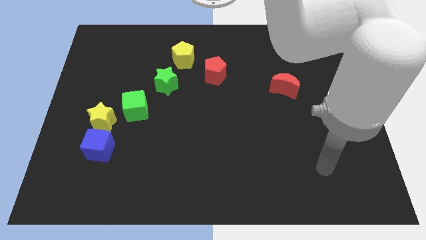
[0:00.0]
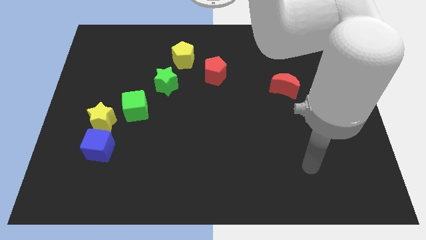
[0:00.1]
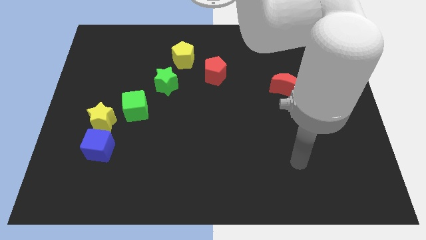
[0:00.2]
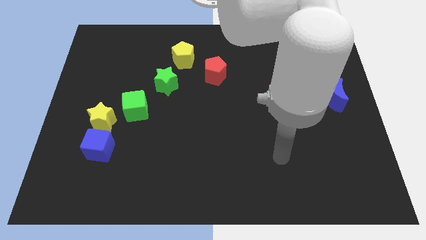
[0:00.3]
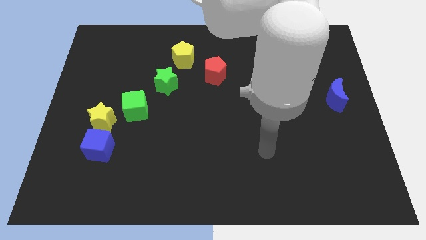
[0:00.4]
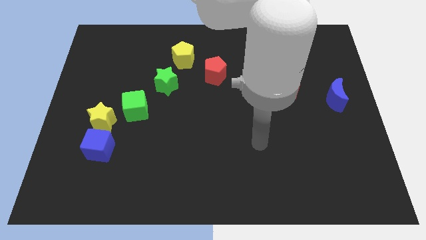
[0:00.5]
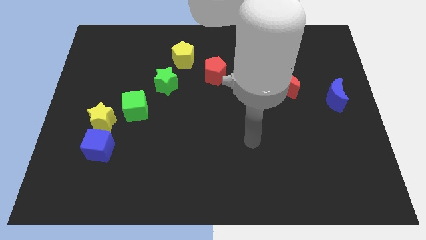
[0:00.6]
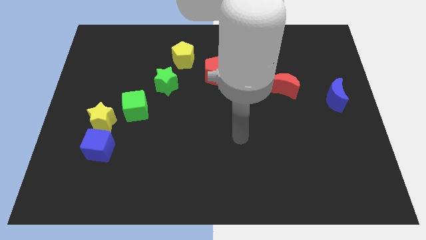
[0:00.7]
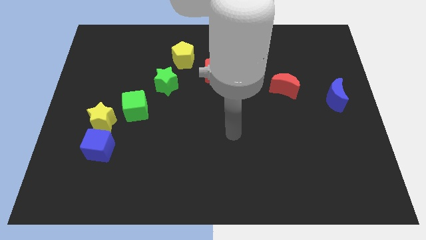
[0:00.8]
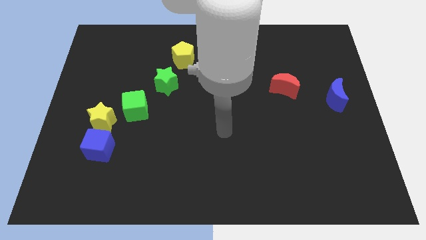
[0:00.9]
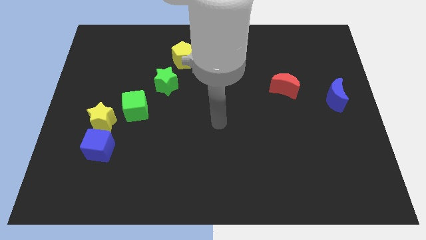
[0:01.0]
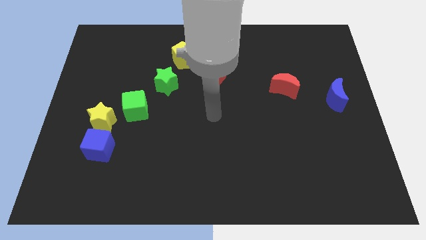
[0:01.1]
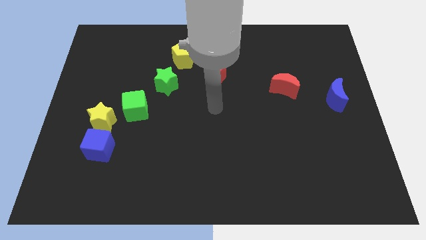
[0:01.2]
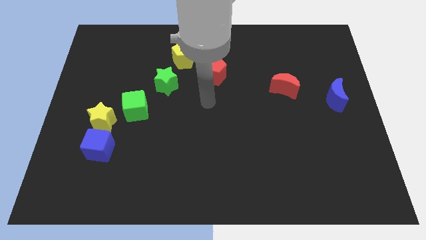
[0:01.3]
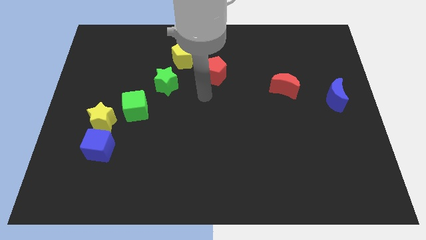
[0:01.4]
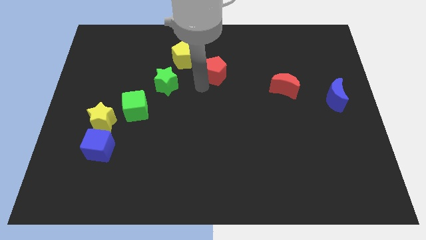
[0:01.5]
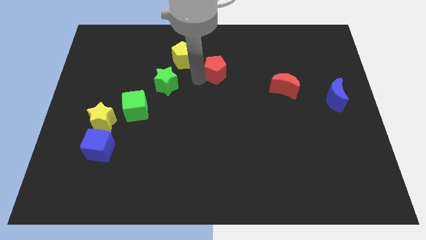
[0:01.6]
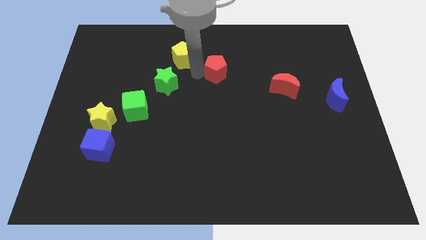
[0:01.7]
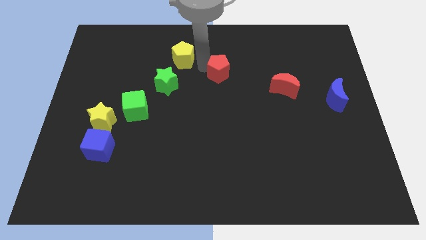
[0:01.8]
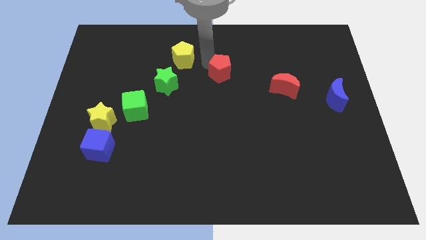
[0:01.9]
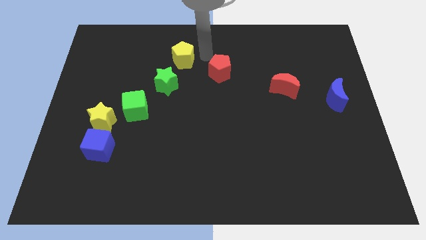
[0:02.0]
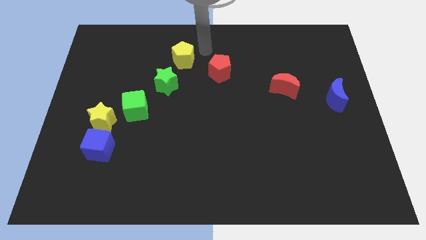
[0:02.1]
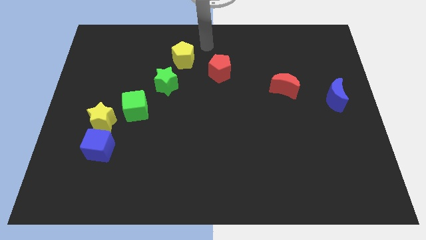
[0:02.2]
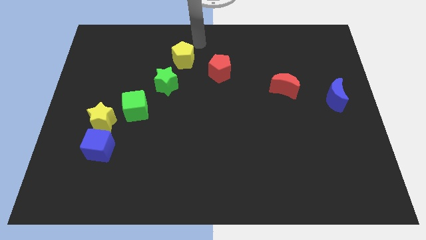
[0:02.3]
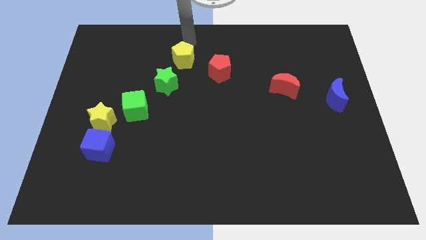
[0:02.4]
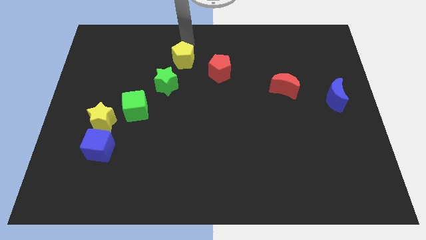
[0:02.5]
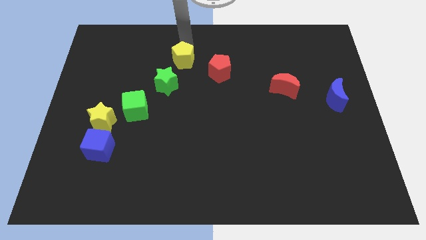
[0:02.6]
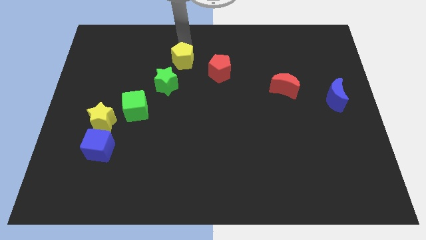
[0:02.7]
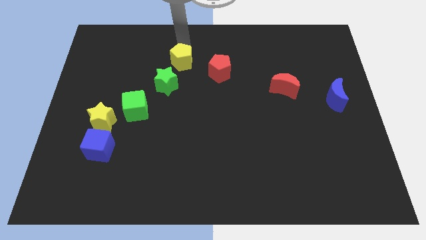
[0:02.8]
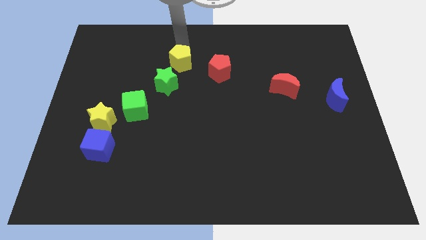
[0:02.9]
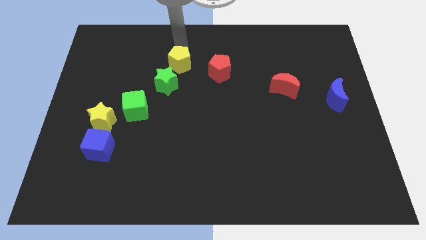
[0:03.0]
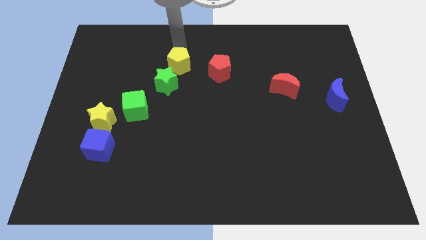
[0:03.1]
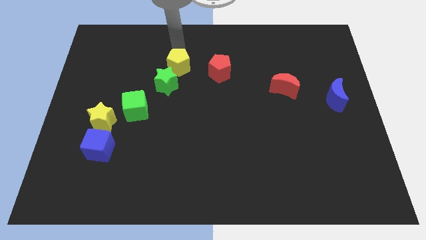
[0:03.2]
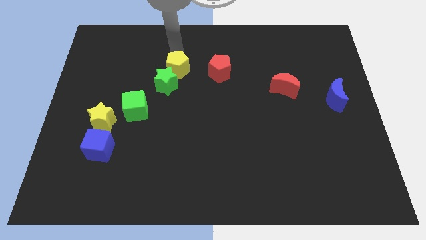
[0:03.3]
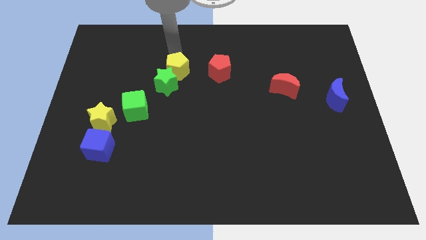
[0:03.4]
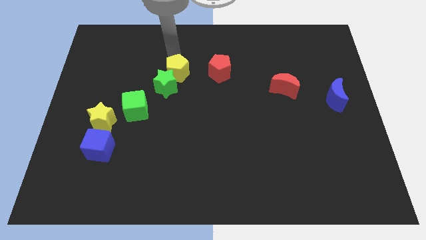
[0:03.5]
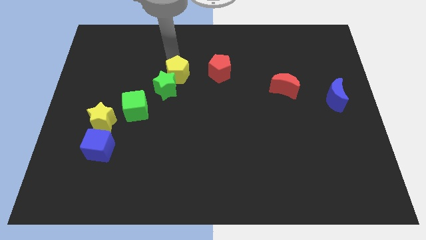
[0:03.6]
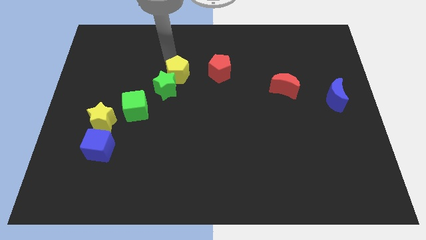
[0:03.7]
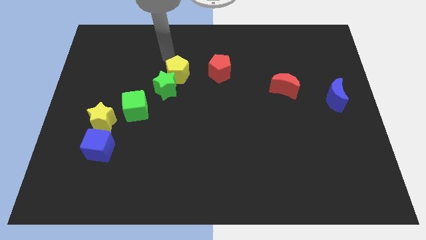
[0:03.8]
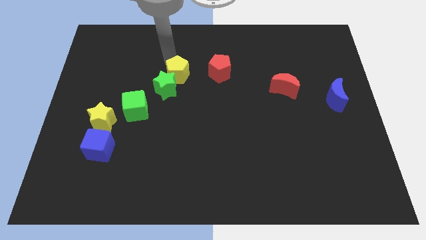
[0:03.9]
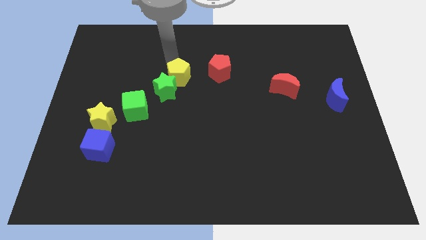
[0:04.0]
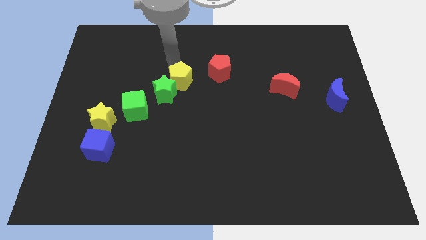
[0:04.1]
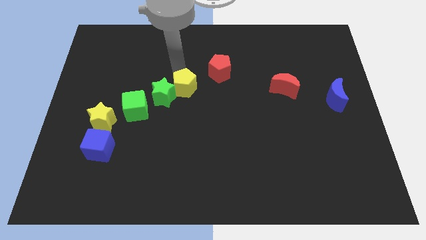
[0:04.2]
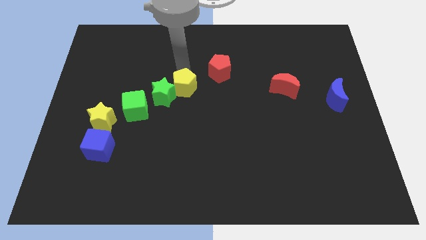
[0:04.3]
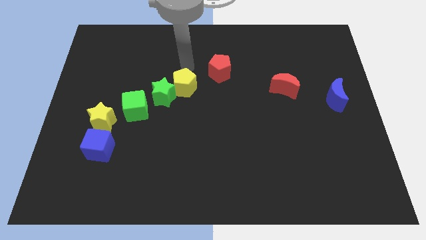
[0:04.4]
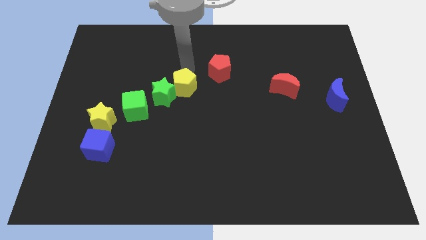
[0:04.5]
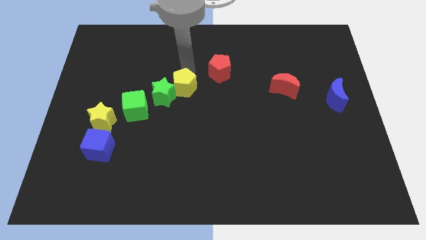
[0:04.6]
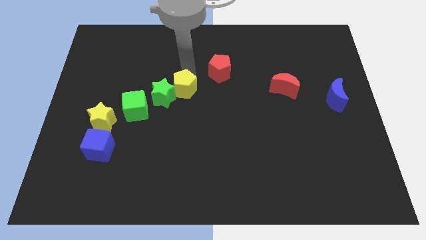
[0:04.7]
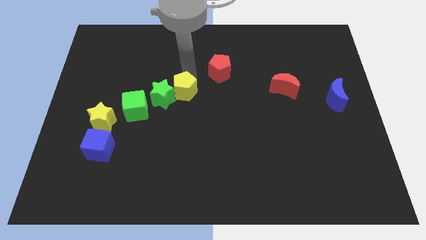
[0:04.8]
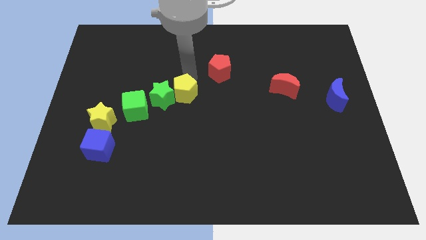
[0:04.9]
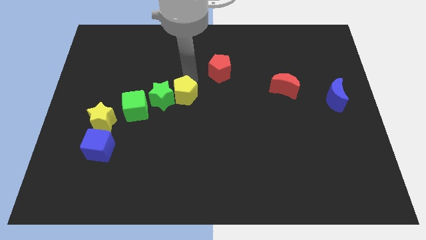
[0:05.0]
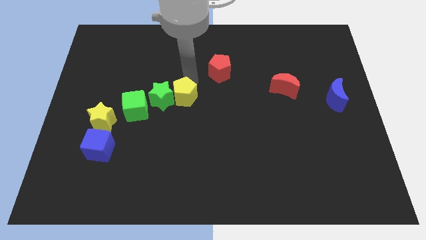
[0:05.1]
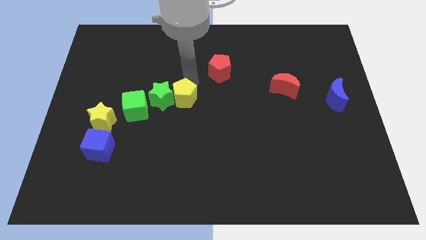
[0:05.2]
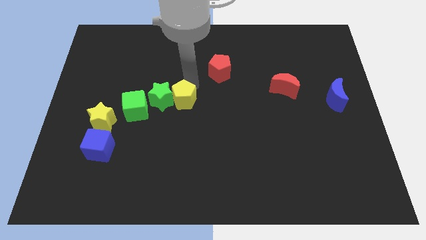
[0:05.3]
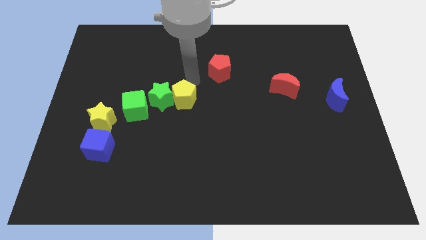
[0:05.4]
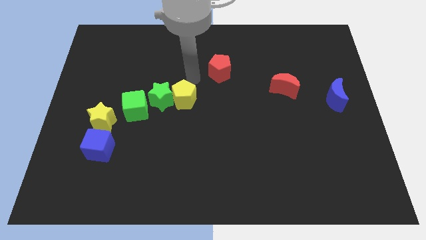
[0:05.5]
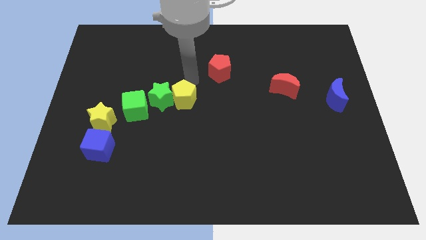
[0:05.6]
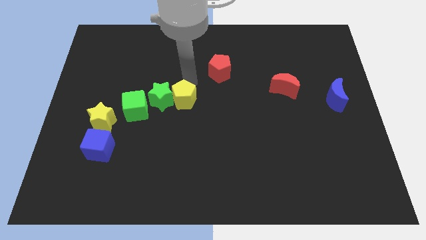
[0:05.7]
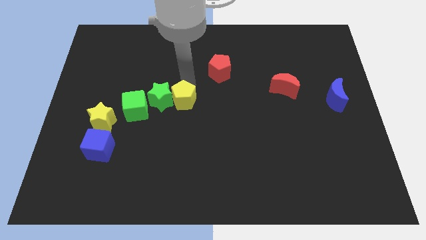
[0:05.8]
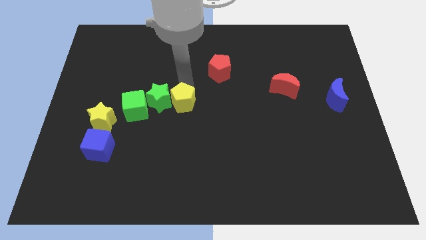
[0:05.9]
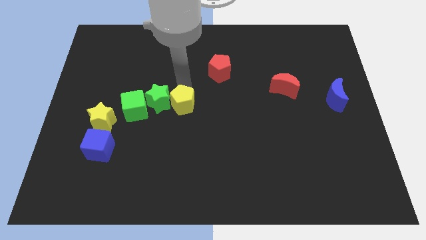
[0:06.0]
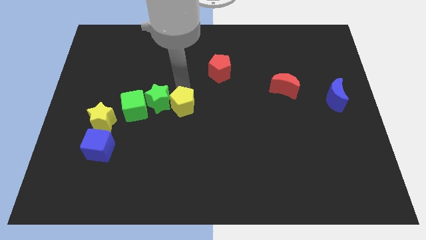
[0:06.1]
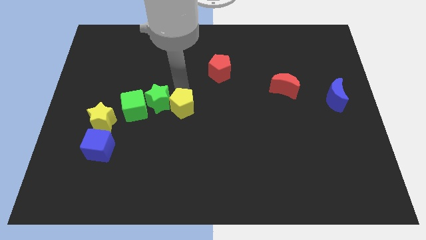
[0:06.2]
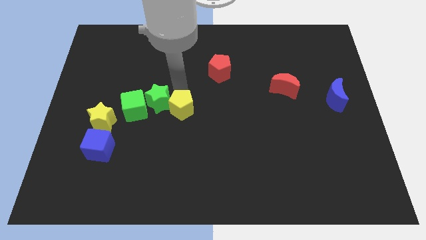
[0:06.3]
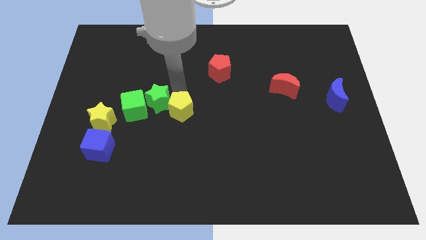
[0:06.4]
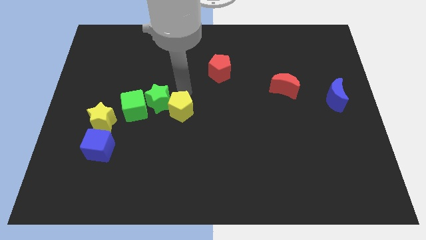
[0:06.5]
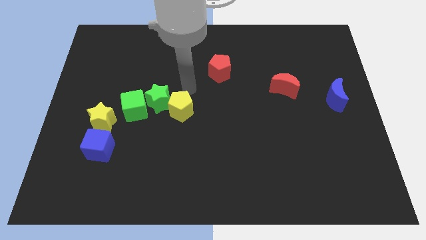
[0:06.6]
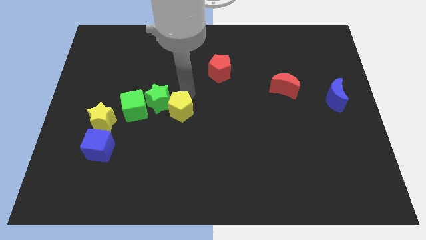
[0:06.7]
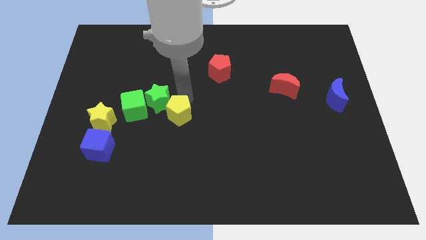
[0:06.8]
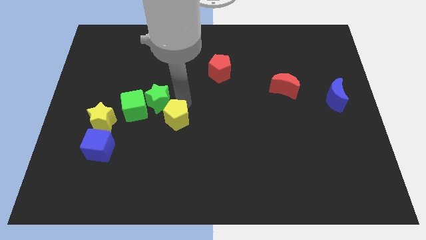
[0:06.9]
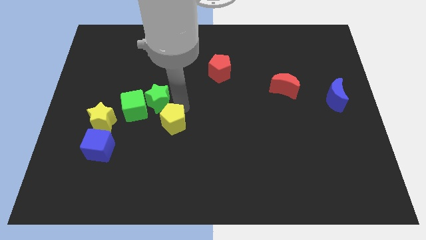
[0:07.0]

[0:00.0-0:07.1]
push the yellow pentagon down

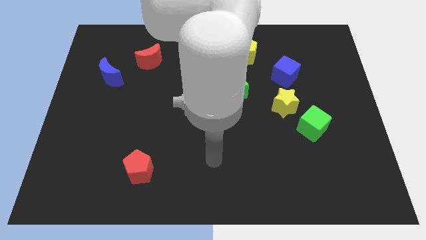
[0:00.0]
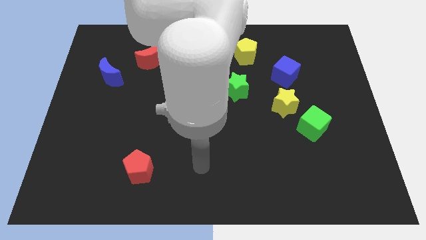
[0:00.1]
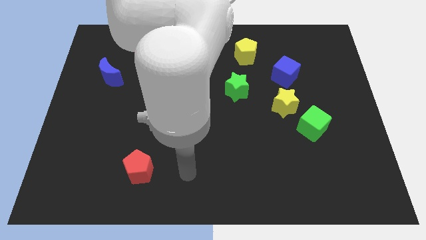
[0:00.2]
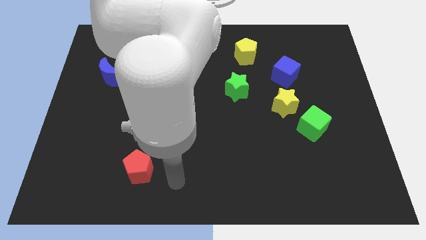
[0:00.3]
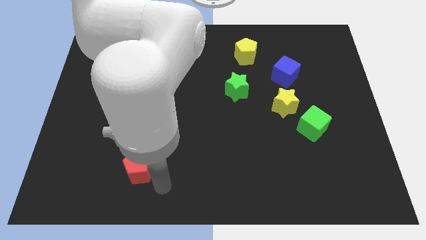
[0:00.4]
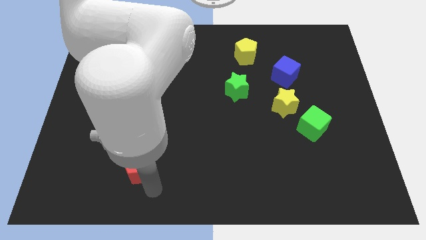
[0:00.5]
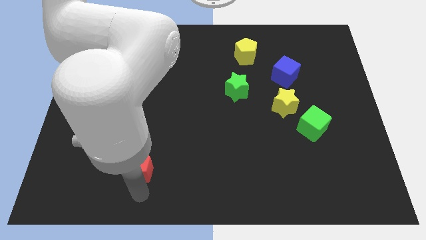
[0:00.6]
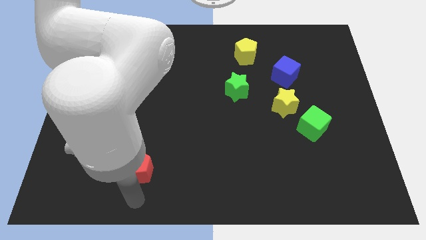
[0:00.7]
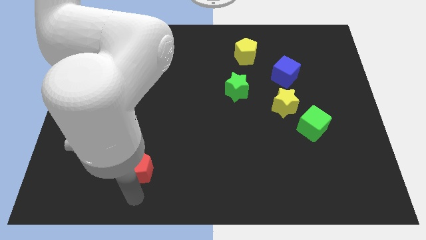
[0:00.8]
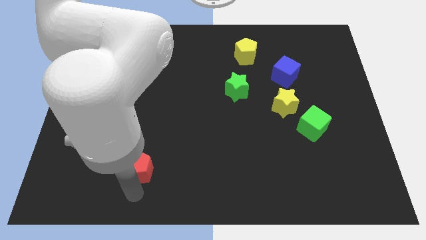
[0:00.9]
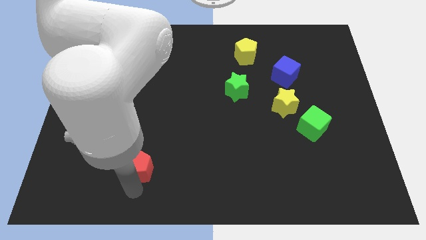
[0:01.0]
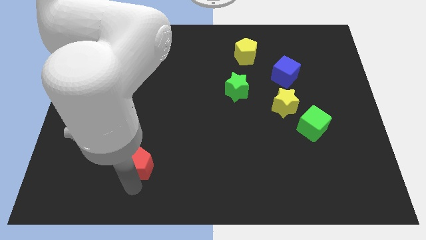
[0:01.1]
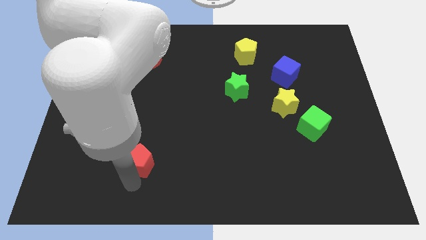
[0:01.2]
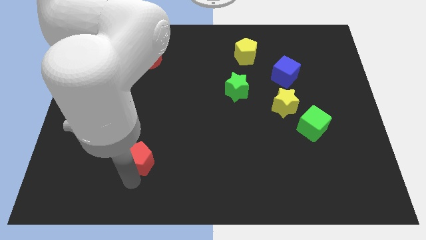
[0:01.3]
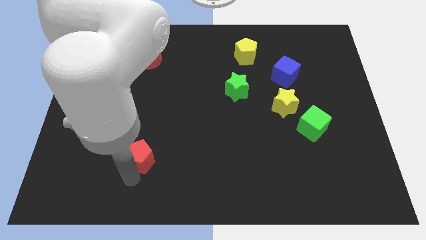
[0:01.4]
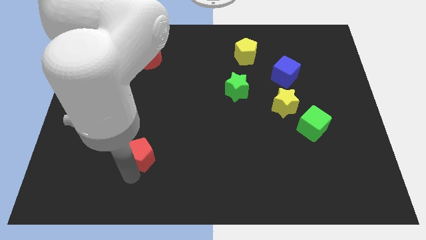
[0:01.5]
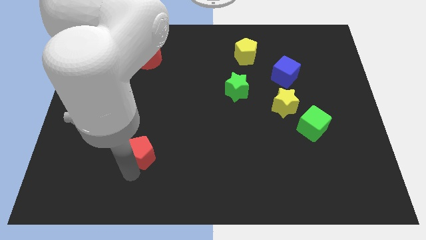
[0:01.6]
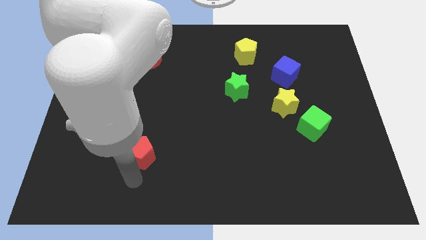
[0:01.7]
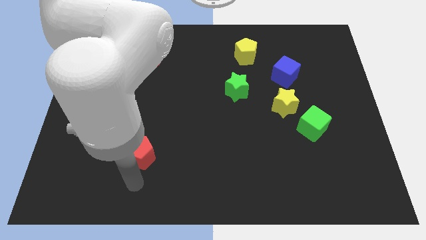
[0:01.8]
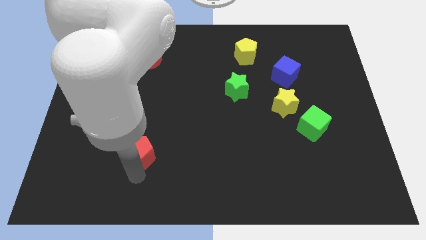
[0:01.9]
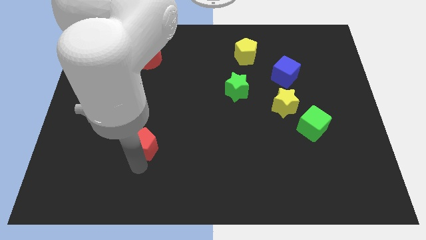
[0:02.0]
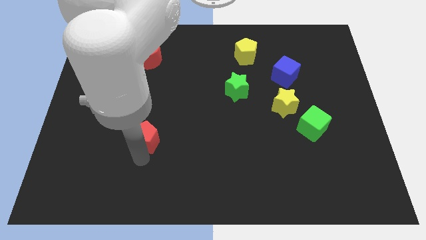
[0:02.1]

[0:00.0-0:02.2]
slide the red pentagon a little bit up
